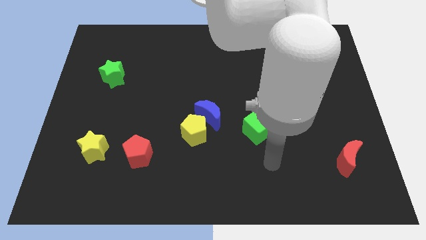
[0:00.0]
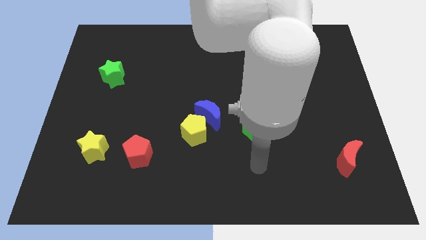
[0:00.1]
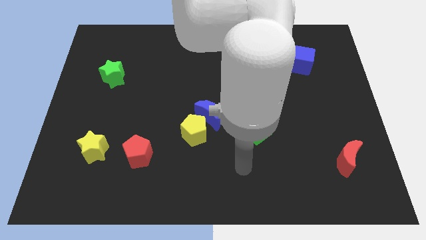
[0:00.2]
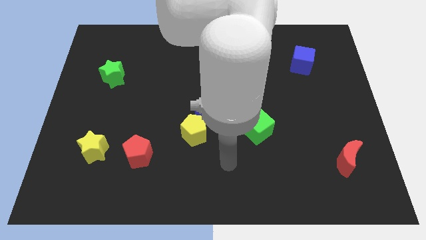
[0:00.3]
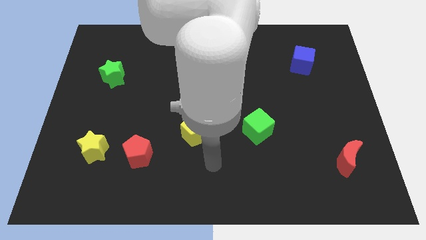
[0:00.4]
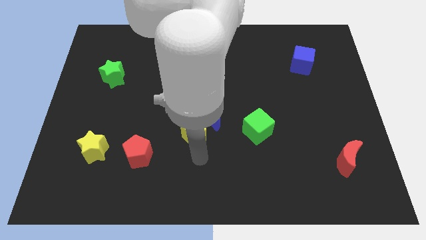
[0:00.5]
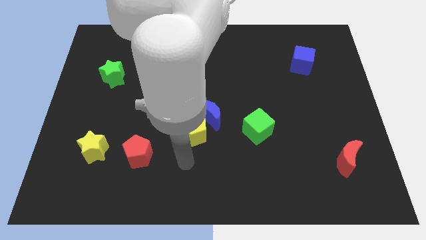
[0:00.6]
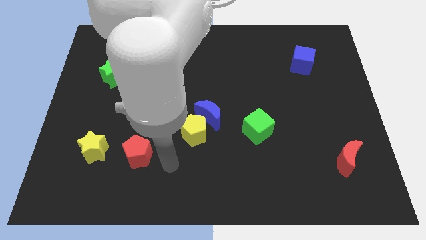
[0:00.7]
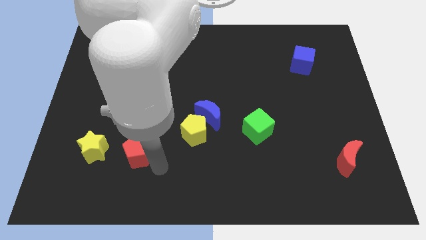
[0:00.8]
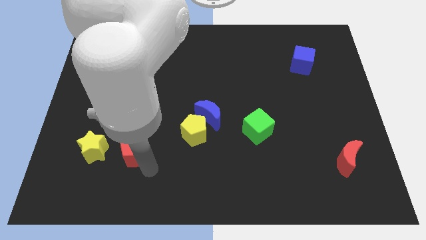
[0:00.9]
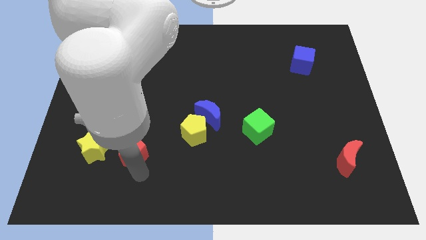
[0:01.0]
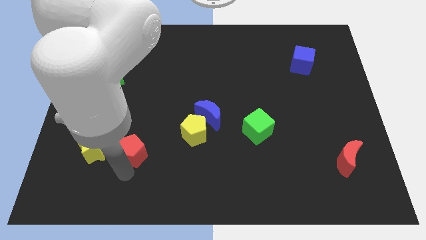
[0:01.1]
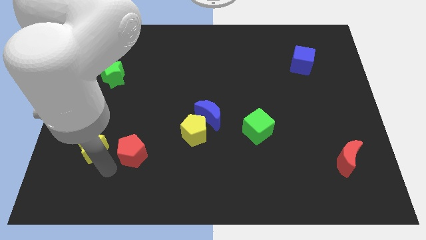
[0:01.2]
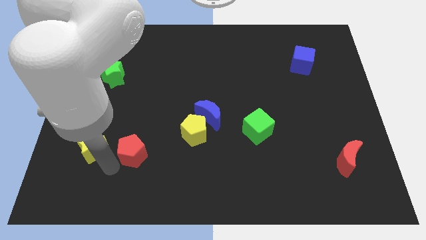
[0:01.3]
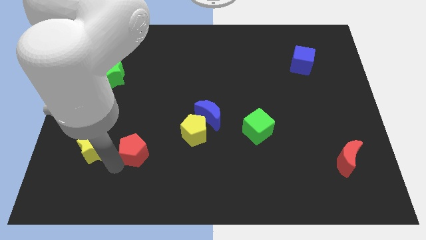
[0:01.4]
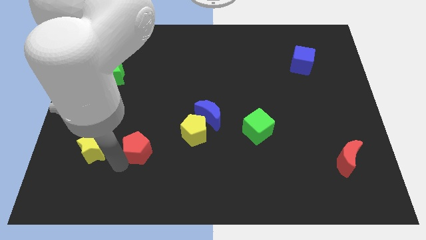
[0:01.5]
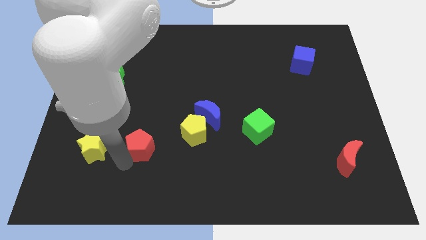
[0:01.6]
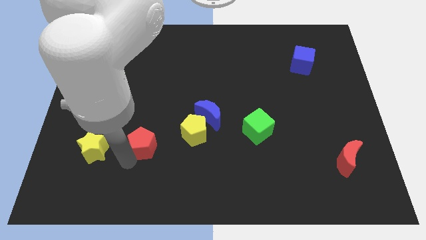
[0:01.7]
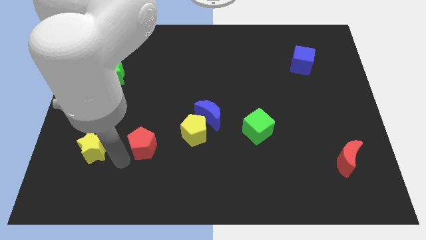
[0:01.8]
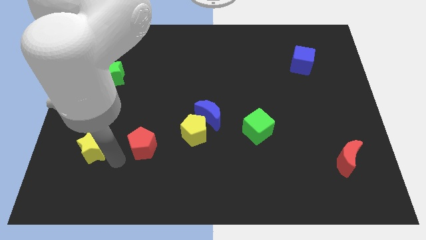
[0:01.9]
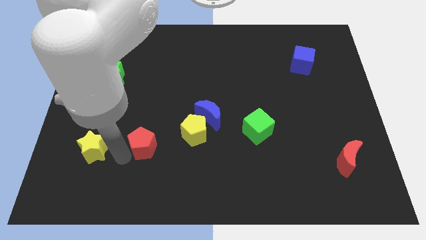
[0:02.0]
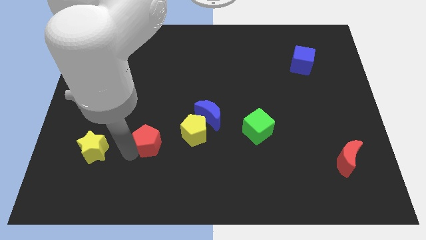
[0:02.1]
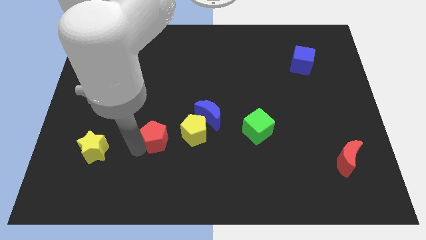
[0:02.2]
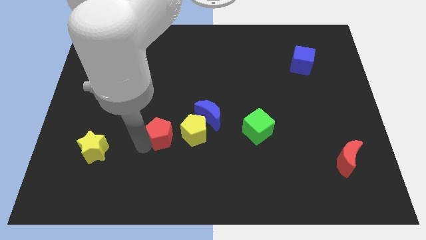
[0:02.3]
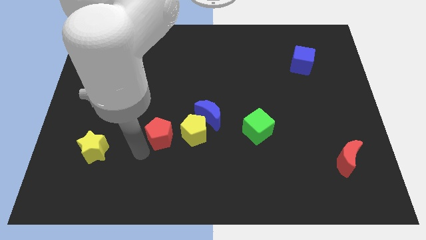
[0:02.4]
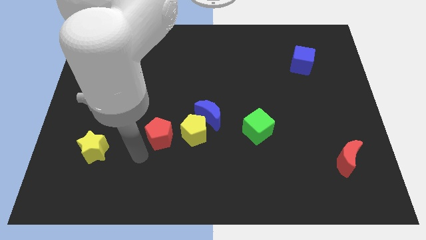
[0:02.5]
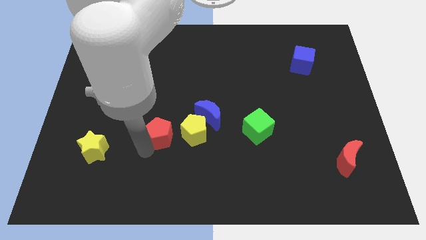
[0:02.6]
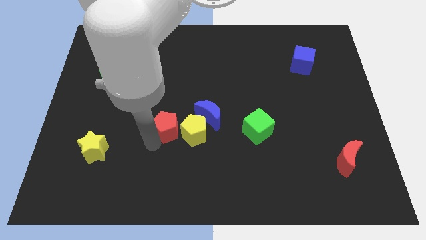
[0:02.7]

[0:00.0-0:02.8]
push the red pentagon somewhat upwards and then right

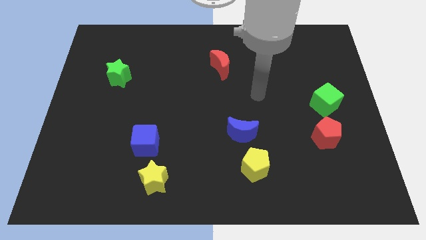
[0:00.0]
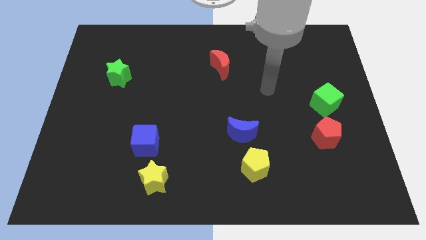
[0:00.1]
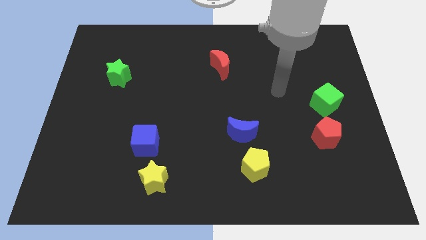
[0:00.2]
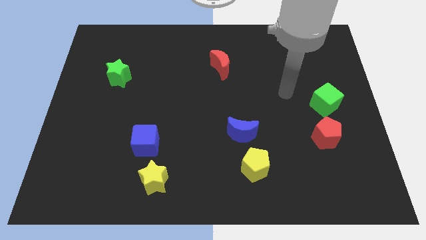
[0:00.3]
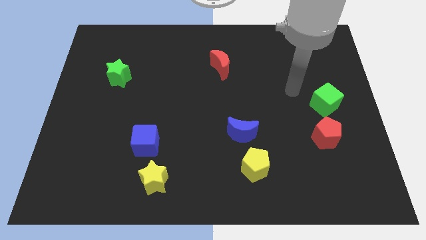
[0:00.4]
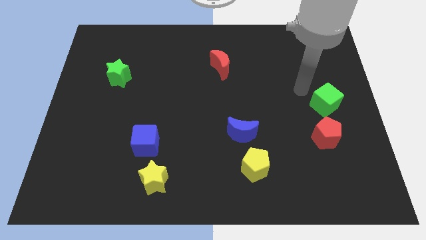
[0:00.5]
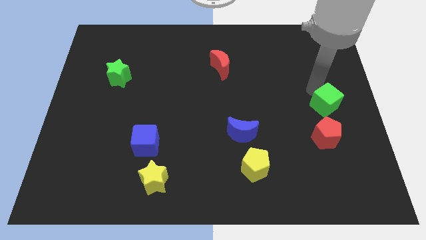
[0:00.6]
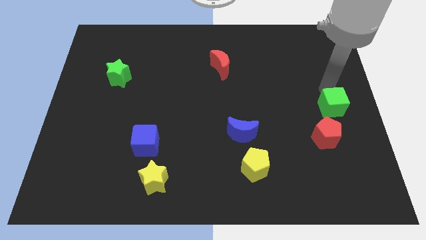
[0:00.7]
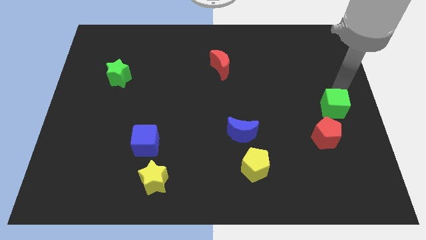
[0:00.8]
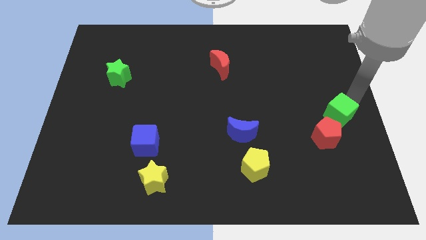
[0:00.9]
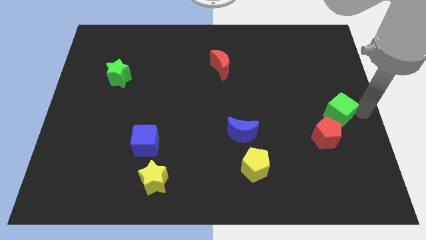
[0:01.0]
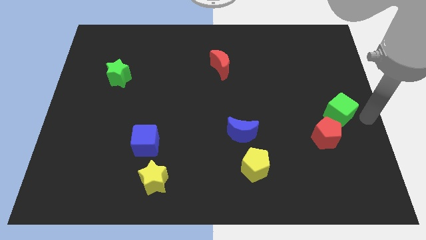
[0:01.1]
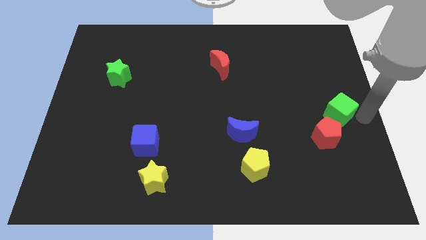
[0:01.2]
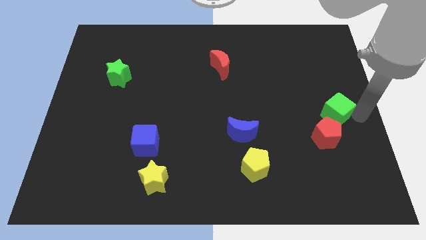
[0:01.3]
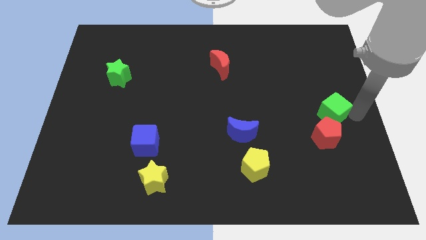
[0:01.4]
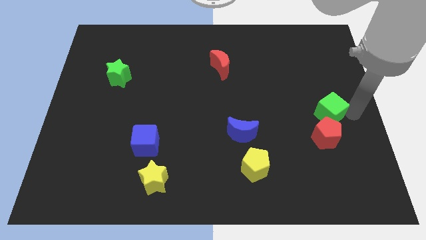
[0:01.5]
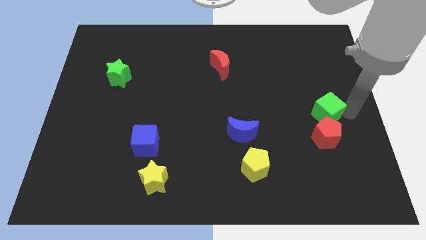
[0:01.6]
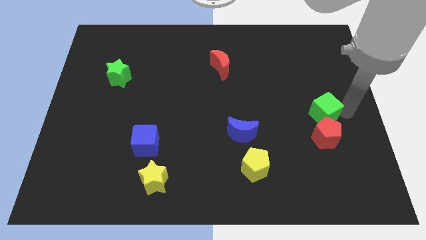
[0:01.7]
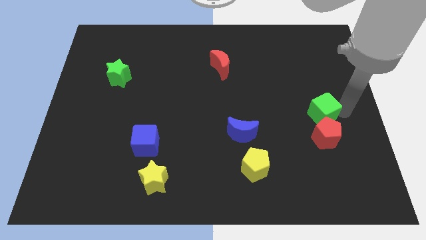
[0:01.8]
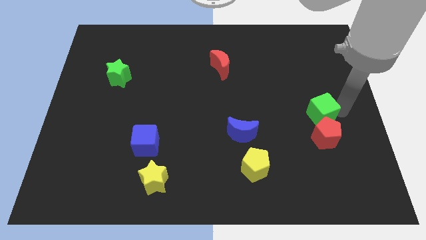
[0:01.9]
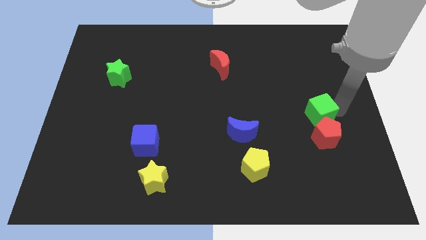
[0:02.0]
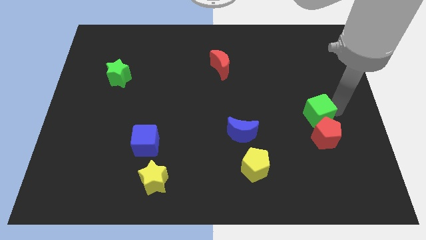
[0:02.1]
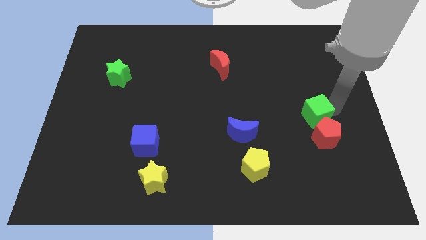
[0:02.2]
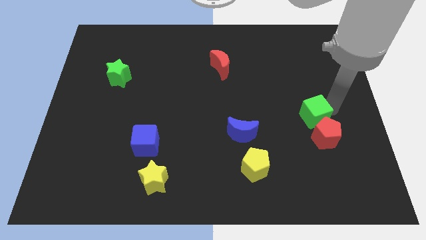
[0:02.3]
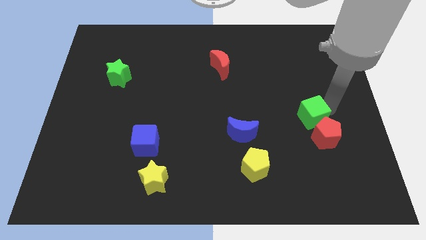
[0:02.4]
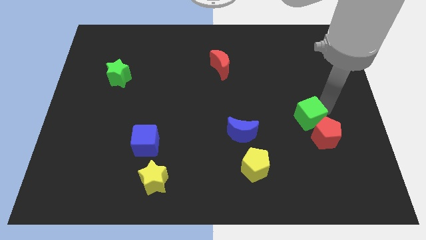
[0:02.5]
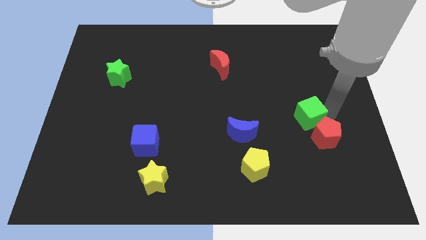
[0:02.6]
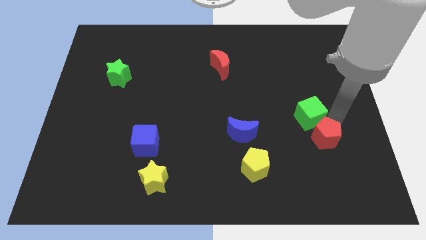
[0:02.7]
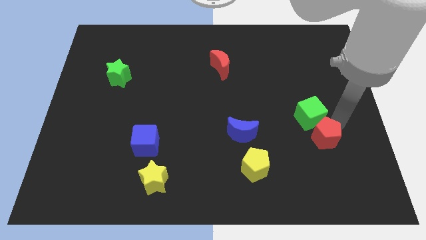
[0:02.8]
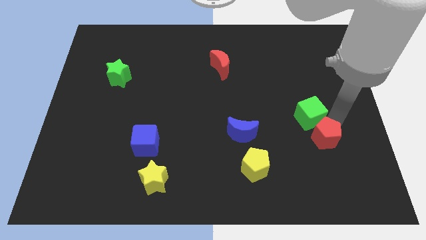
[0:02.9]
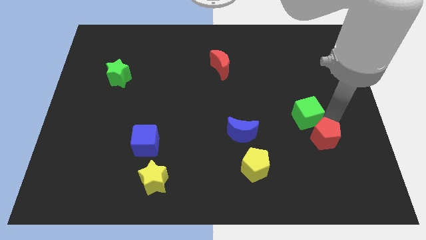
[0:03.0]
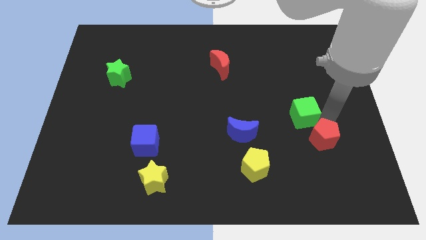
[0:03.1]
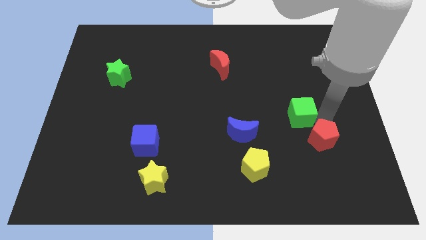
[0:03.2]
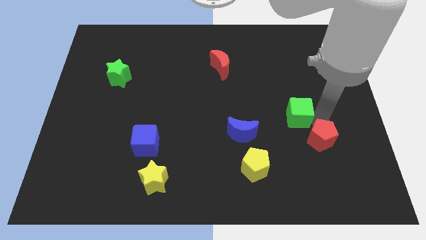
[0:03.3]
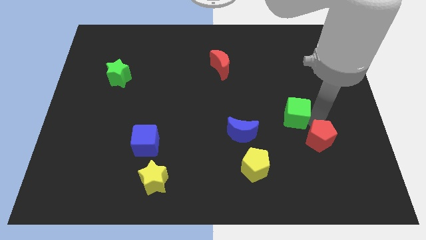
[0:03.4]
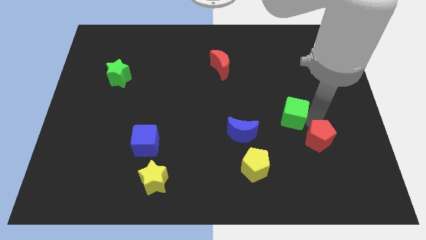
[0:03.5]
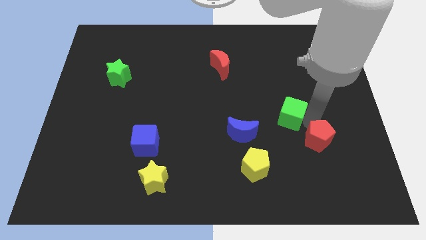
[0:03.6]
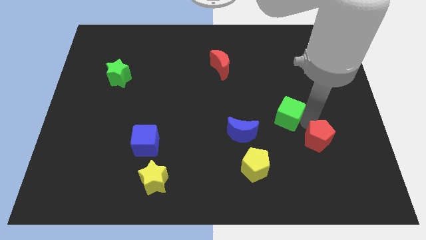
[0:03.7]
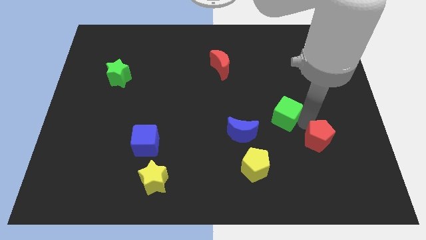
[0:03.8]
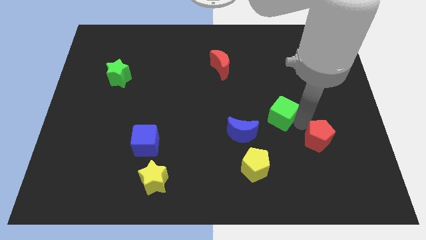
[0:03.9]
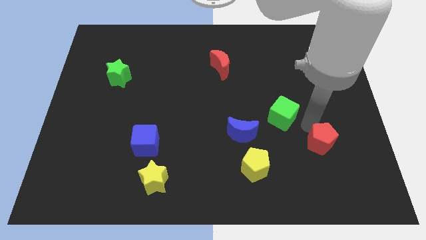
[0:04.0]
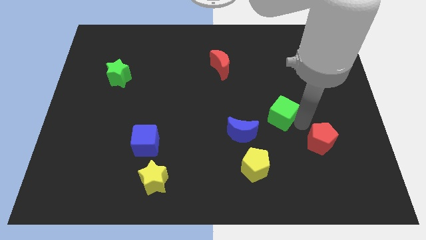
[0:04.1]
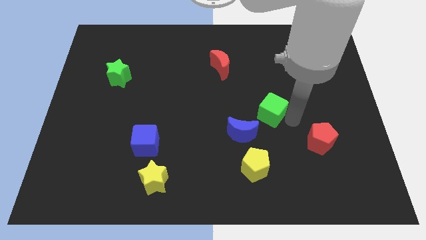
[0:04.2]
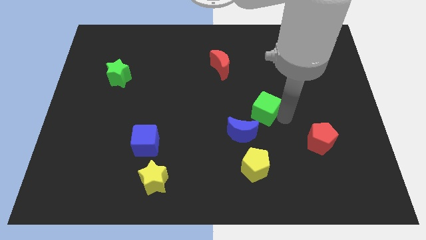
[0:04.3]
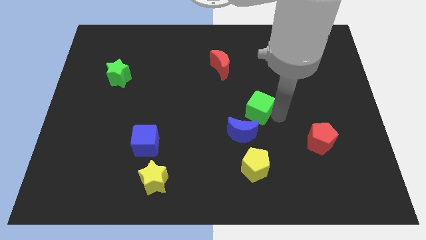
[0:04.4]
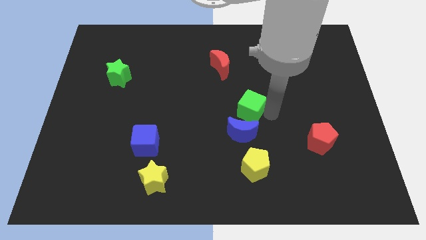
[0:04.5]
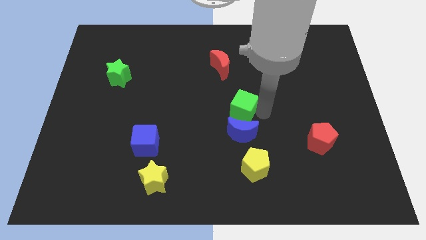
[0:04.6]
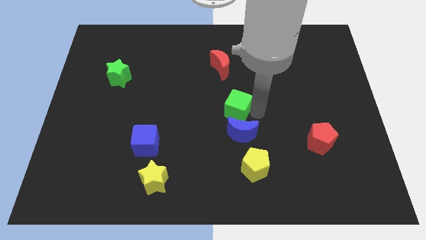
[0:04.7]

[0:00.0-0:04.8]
push the green cube left

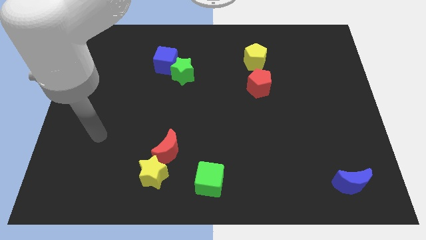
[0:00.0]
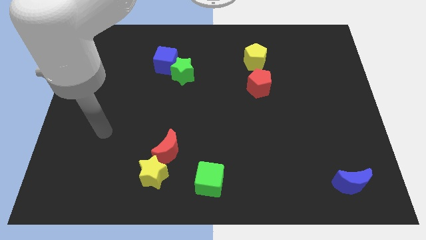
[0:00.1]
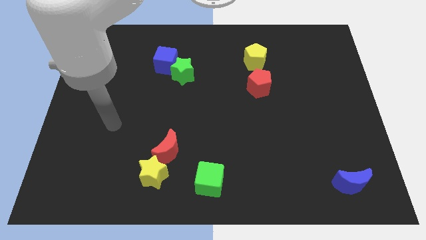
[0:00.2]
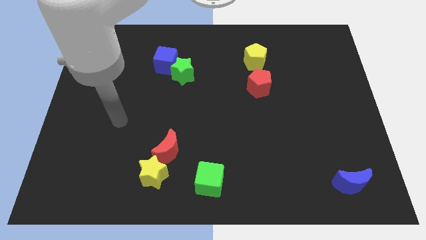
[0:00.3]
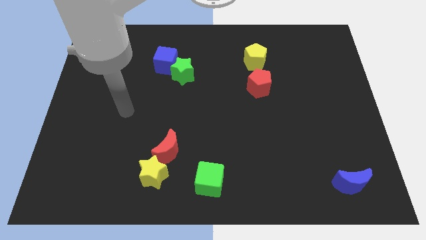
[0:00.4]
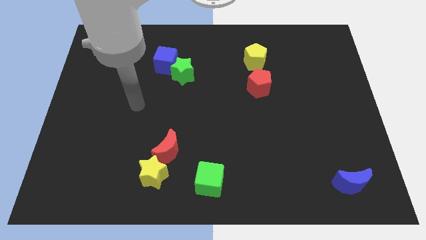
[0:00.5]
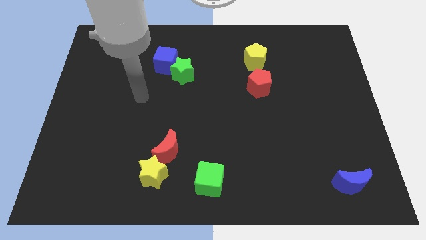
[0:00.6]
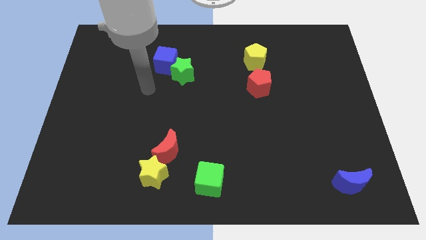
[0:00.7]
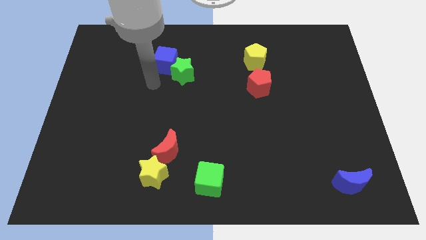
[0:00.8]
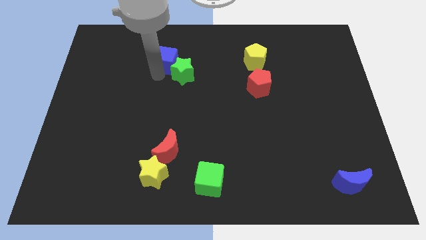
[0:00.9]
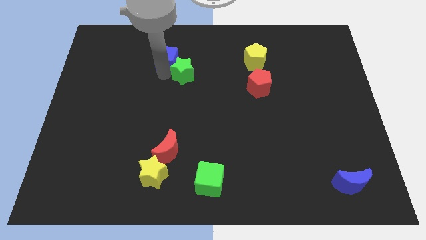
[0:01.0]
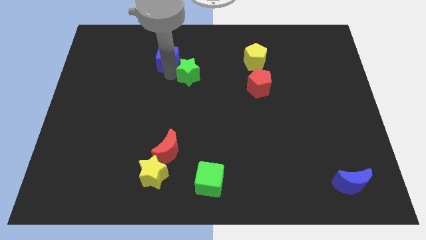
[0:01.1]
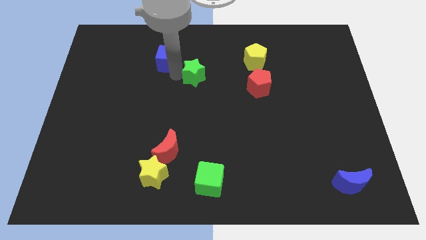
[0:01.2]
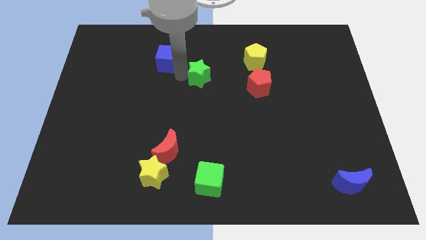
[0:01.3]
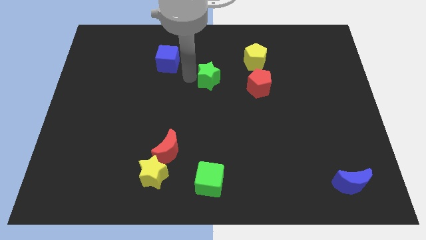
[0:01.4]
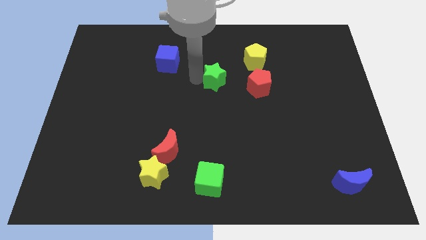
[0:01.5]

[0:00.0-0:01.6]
slightly slide the green star to the right
